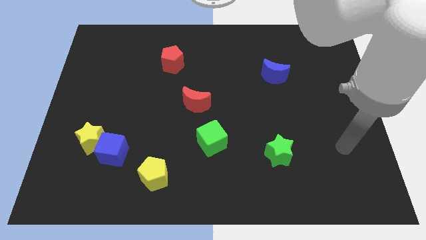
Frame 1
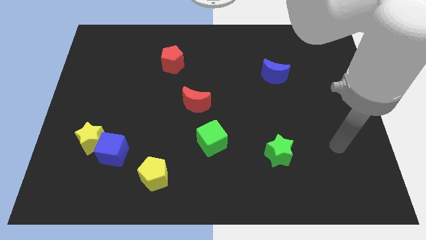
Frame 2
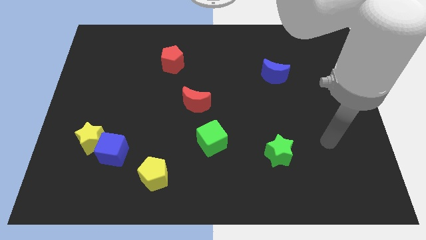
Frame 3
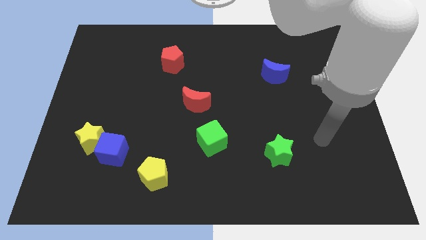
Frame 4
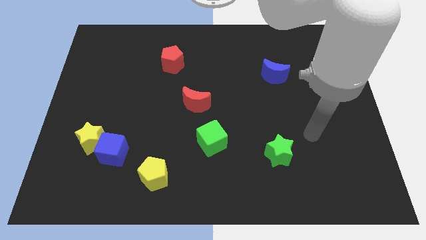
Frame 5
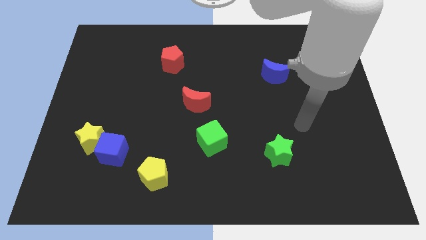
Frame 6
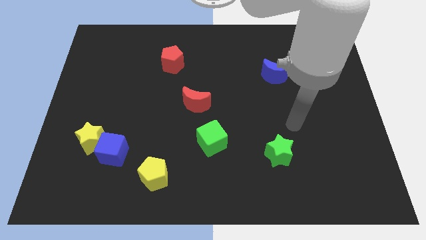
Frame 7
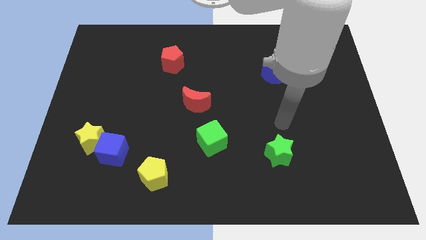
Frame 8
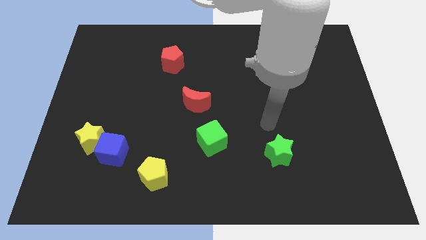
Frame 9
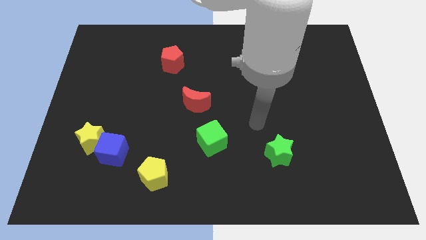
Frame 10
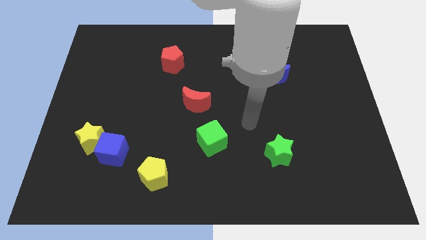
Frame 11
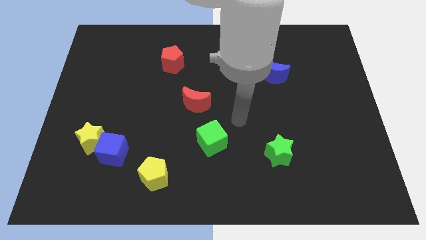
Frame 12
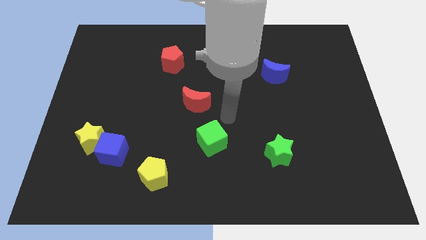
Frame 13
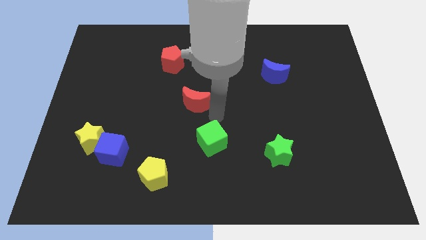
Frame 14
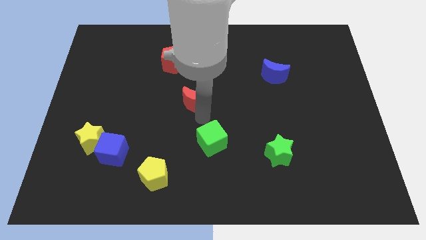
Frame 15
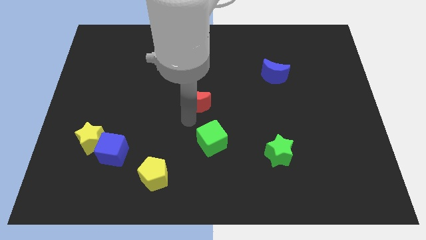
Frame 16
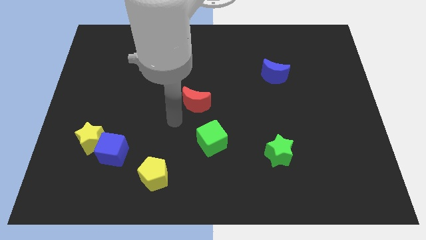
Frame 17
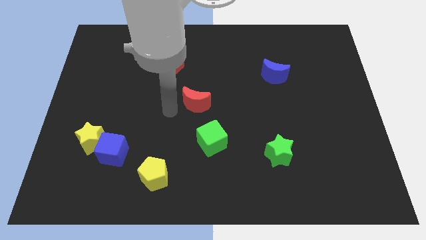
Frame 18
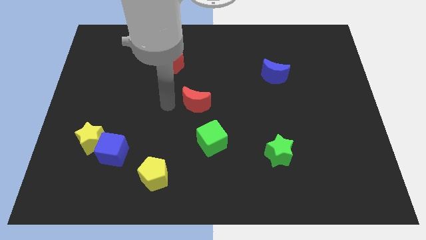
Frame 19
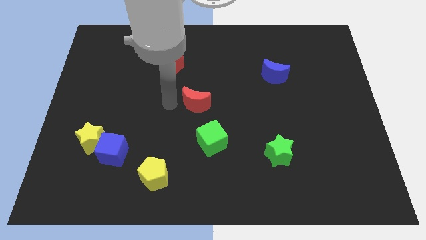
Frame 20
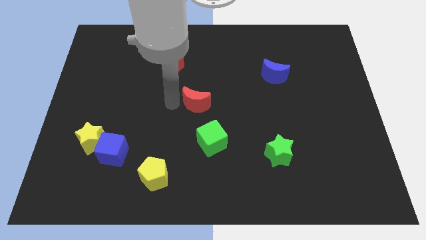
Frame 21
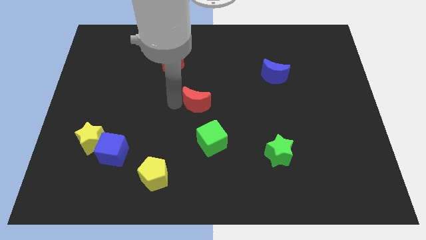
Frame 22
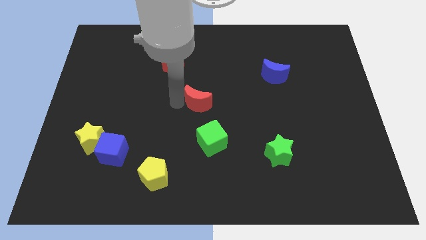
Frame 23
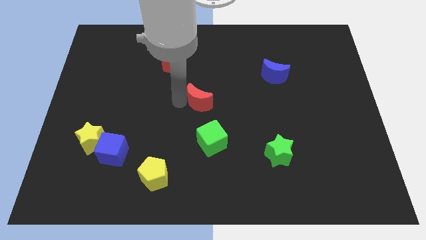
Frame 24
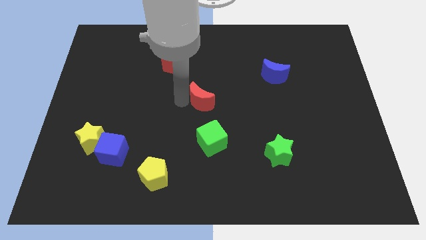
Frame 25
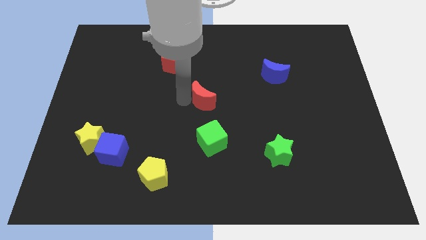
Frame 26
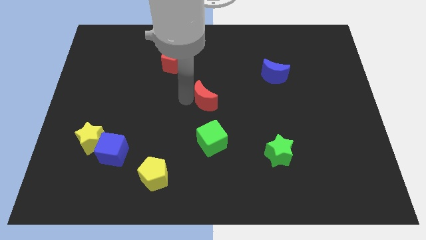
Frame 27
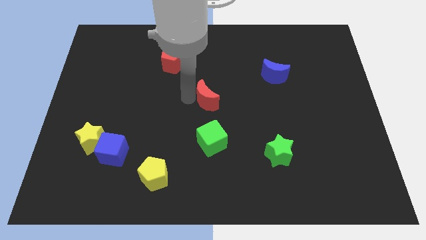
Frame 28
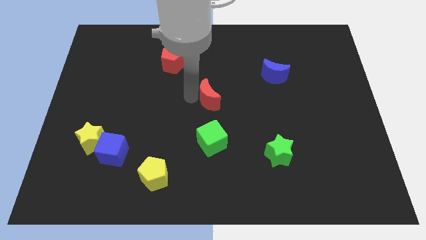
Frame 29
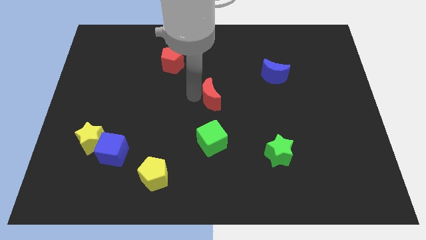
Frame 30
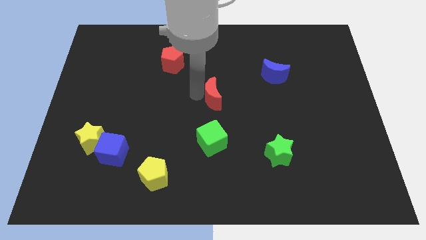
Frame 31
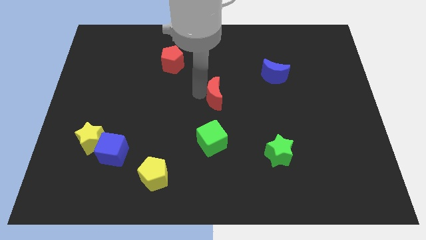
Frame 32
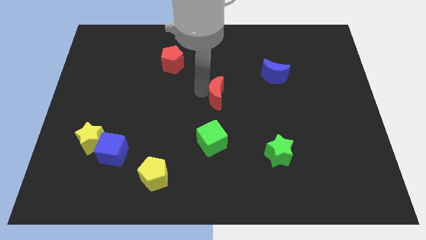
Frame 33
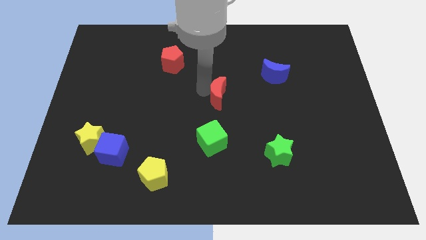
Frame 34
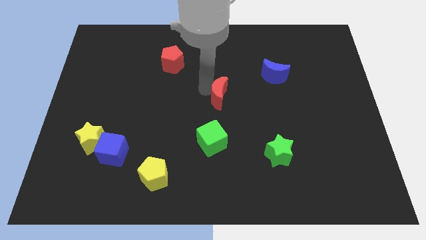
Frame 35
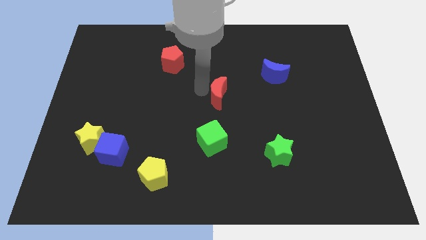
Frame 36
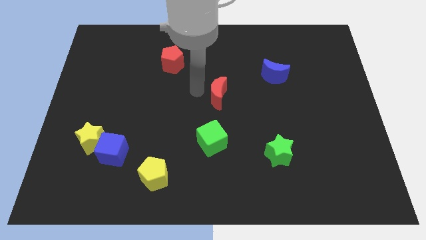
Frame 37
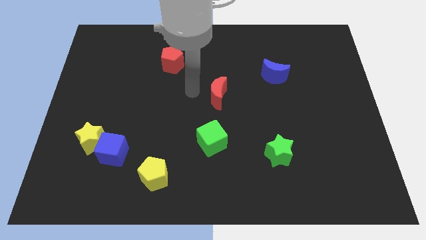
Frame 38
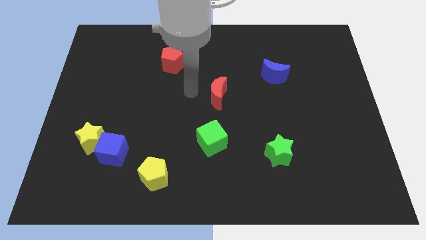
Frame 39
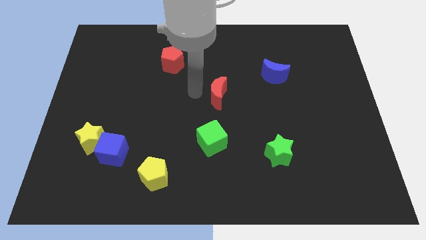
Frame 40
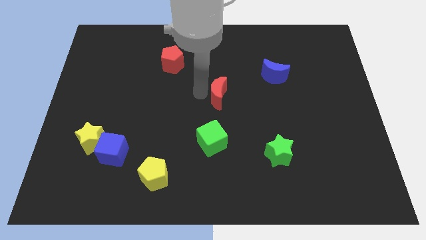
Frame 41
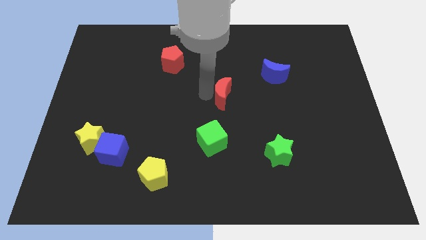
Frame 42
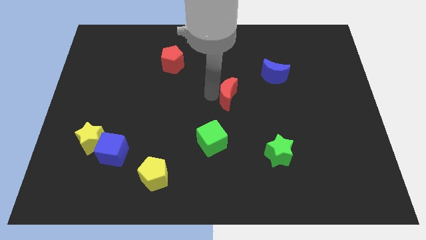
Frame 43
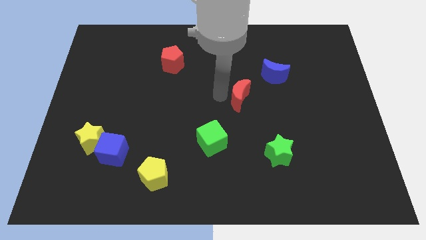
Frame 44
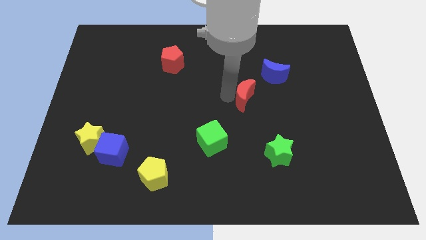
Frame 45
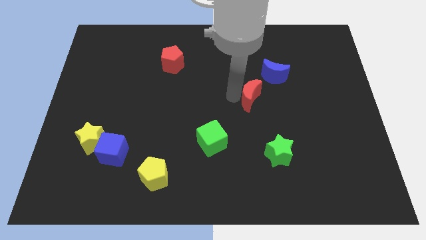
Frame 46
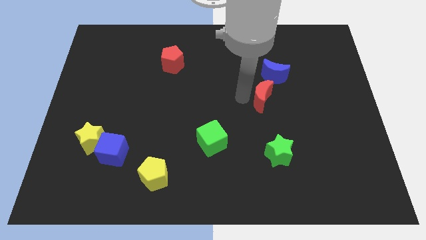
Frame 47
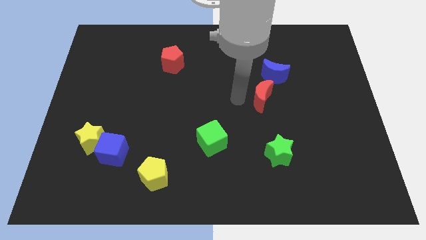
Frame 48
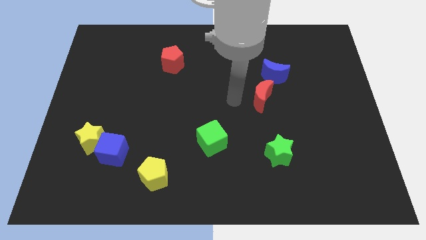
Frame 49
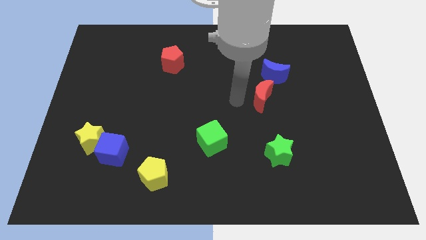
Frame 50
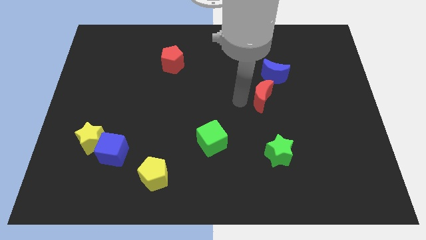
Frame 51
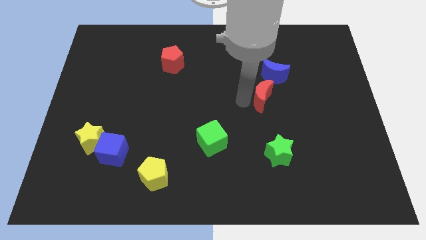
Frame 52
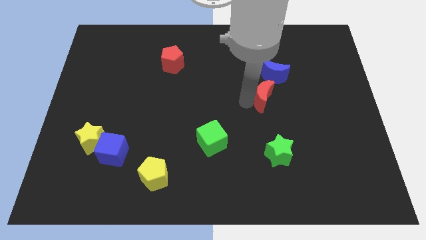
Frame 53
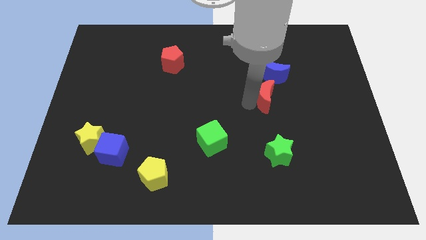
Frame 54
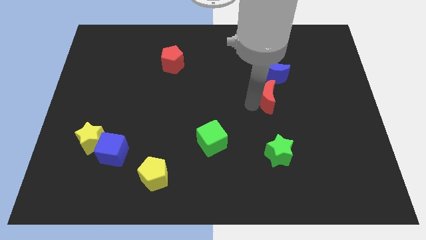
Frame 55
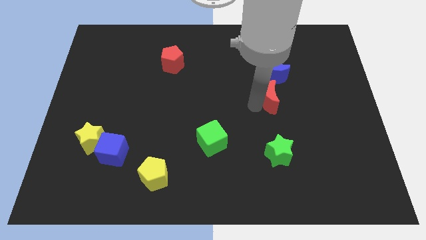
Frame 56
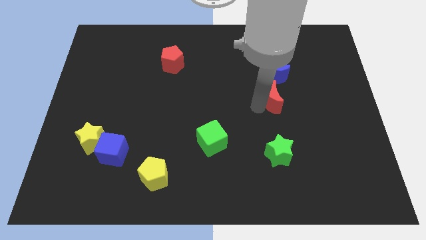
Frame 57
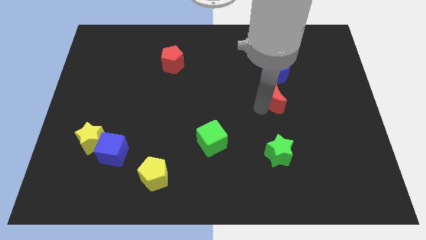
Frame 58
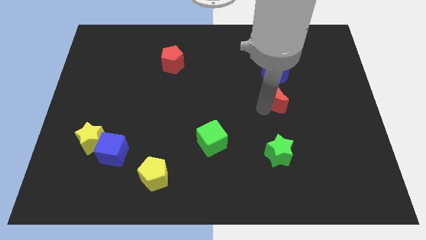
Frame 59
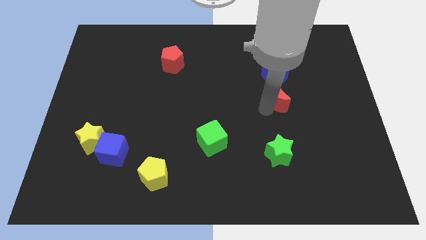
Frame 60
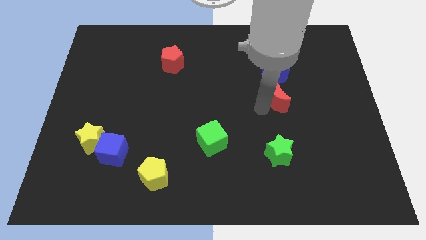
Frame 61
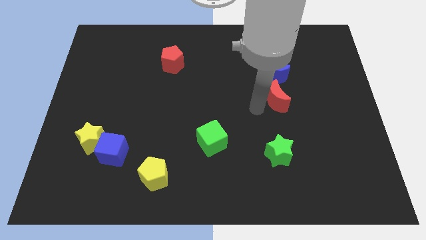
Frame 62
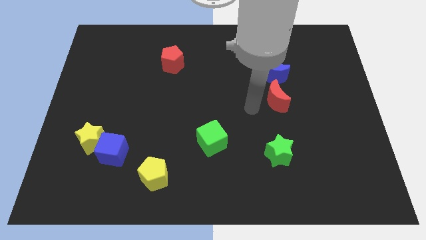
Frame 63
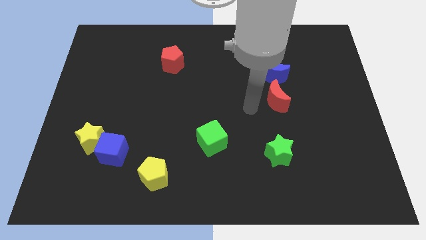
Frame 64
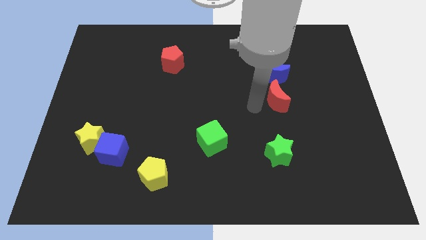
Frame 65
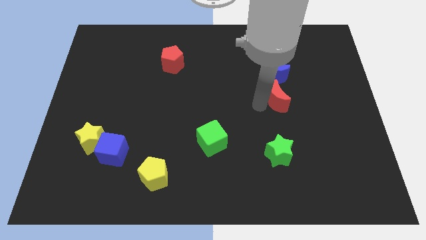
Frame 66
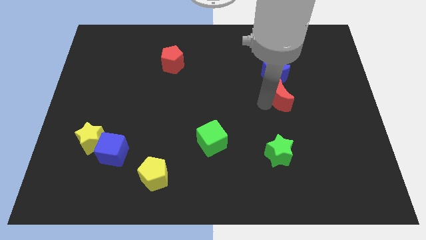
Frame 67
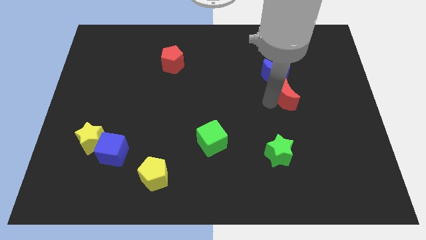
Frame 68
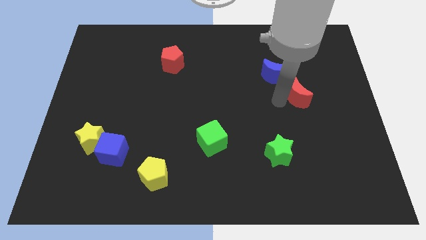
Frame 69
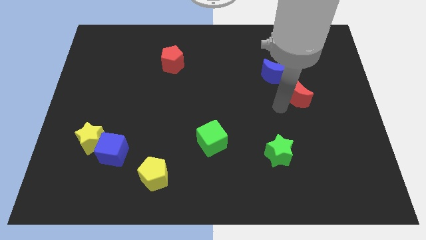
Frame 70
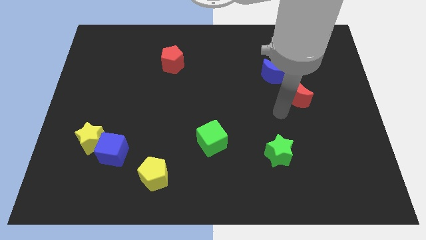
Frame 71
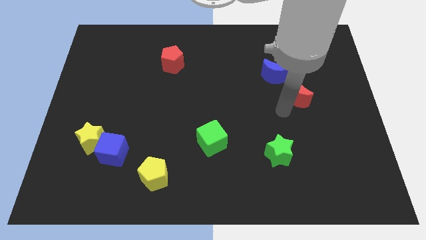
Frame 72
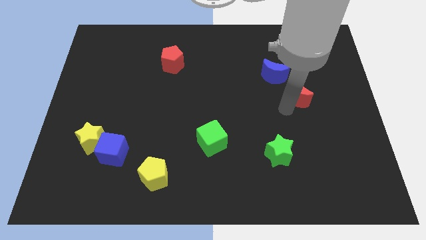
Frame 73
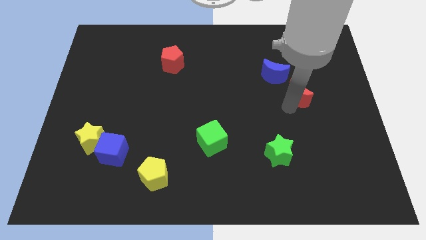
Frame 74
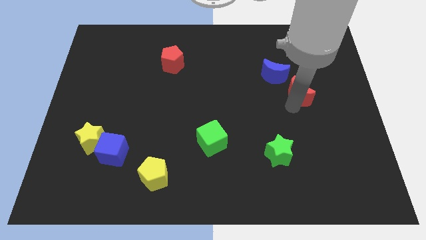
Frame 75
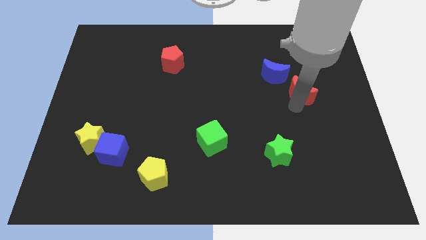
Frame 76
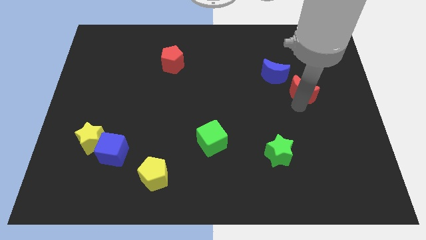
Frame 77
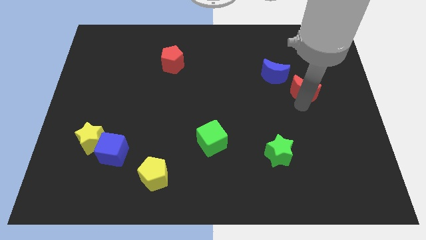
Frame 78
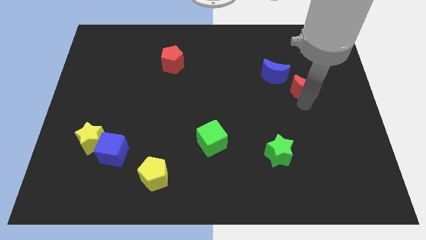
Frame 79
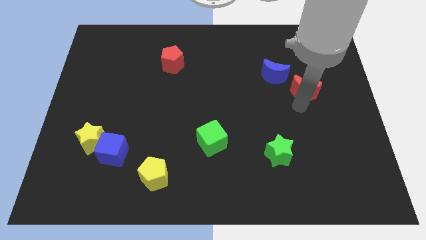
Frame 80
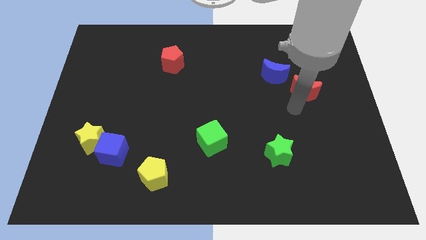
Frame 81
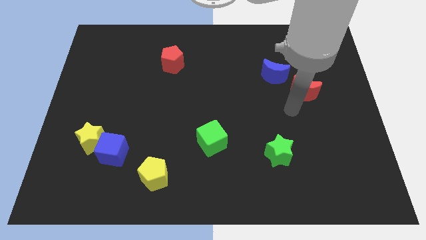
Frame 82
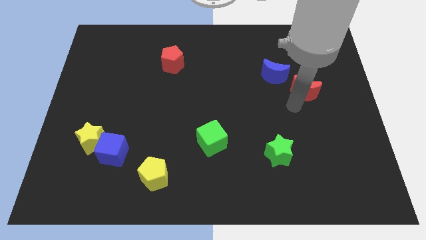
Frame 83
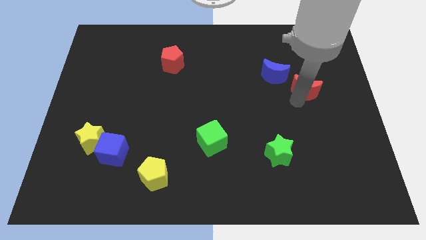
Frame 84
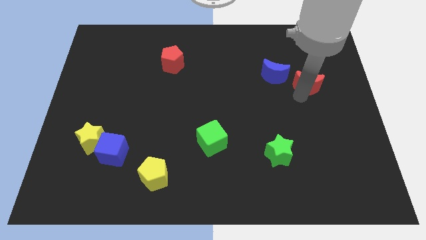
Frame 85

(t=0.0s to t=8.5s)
push the red moon to the right side of the blue moon

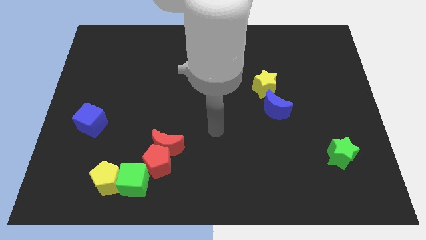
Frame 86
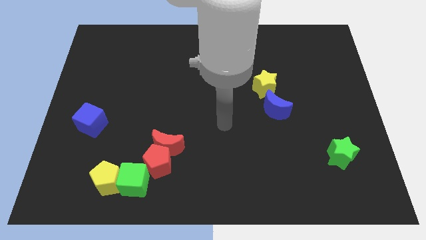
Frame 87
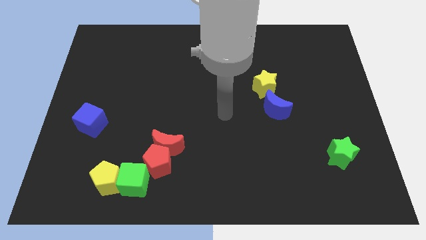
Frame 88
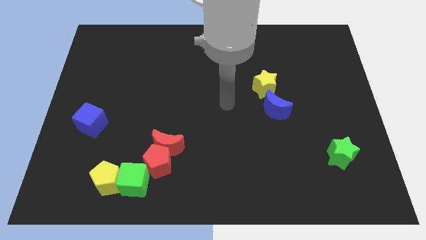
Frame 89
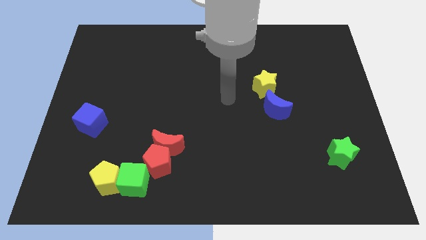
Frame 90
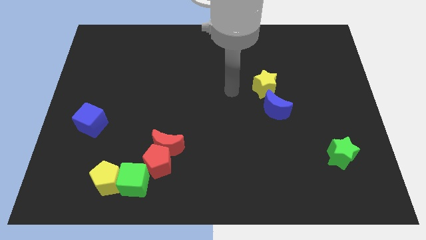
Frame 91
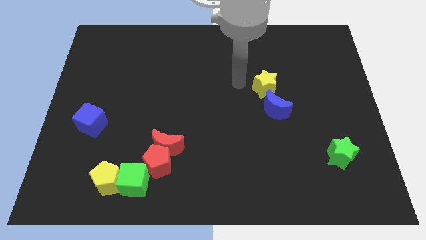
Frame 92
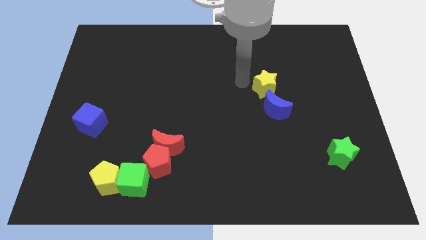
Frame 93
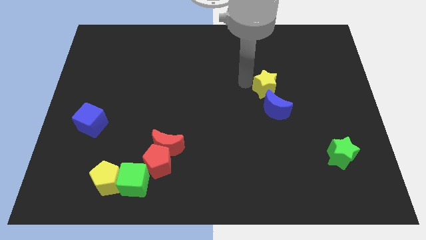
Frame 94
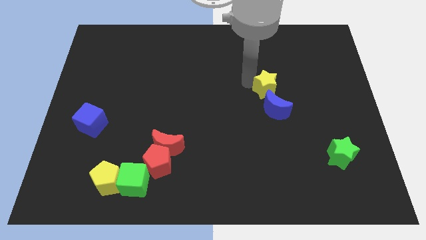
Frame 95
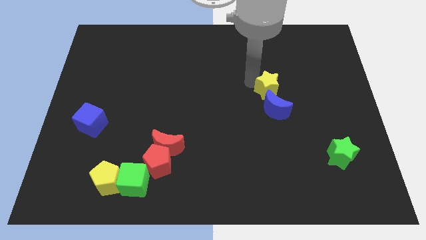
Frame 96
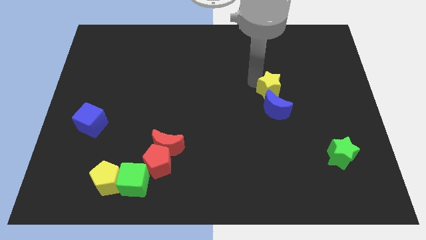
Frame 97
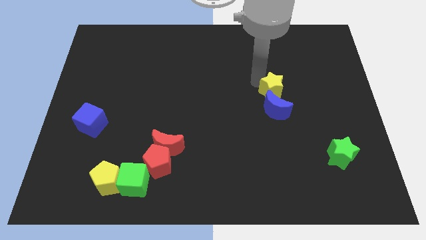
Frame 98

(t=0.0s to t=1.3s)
slide the yellow star to the top right side of the blue moon
